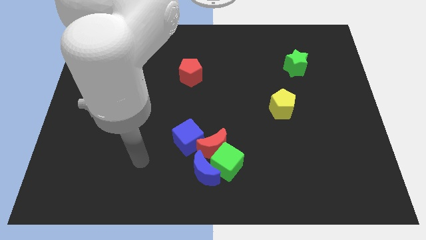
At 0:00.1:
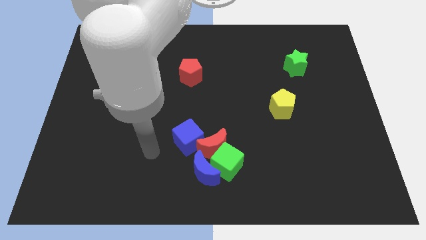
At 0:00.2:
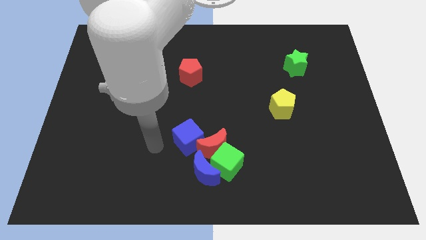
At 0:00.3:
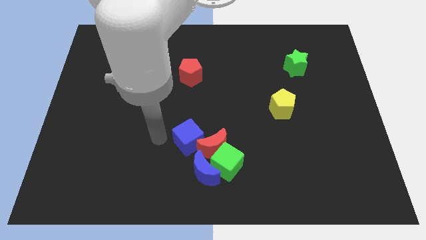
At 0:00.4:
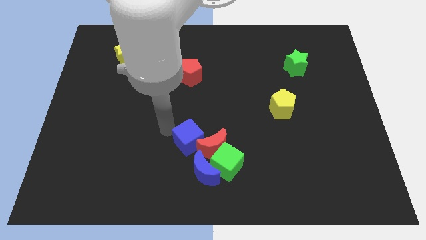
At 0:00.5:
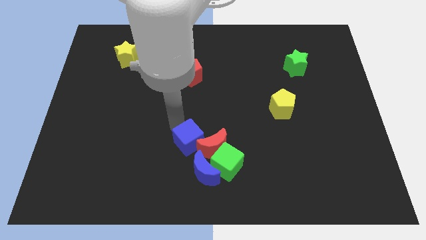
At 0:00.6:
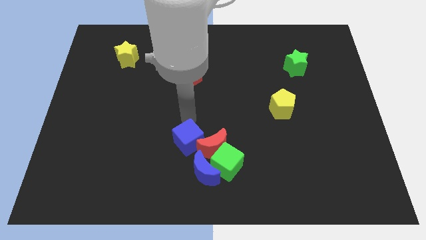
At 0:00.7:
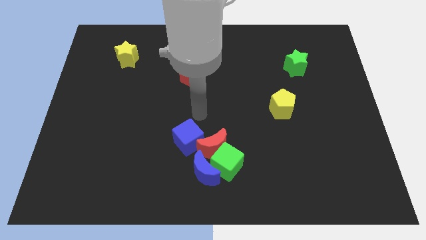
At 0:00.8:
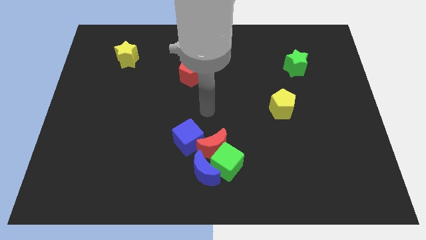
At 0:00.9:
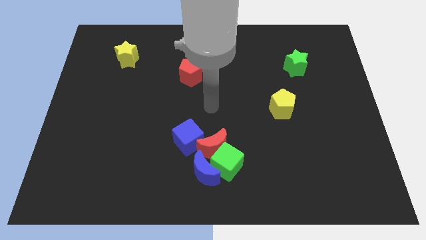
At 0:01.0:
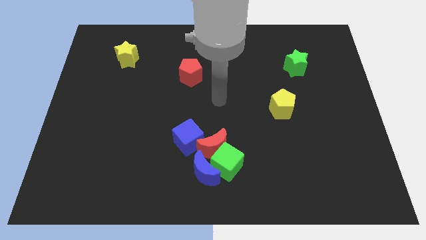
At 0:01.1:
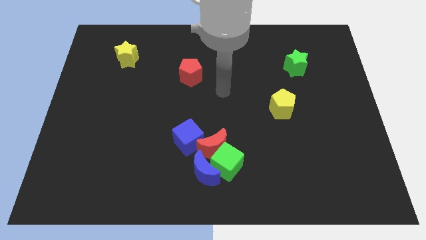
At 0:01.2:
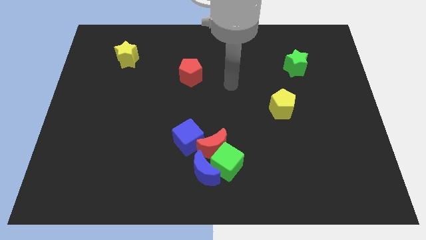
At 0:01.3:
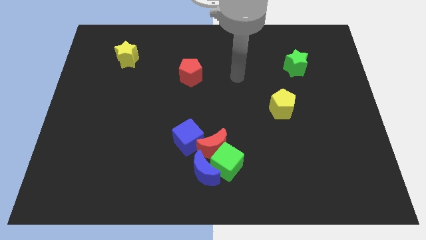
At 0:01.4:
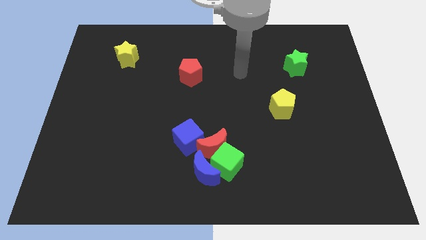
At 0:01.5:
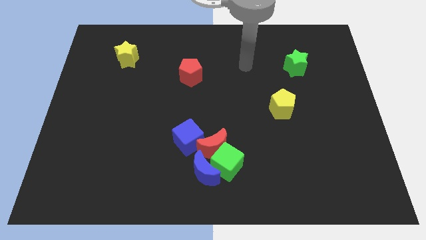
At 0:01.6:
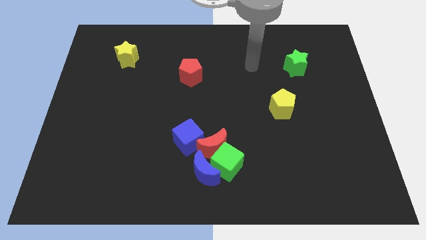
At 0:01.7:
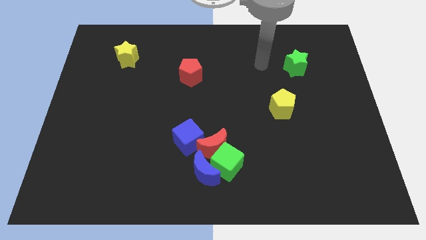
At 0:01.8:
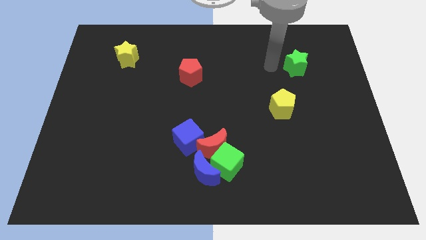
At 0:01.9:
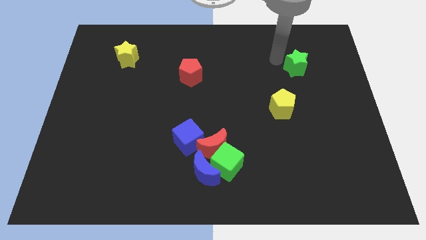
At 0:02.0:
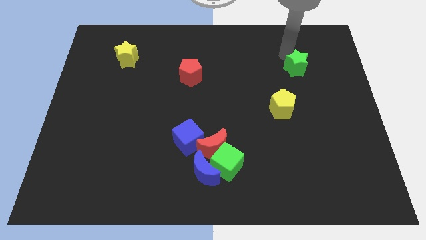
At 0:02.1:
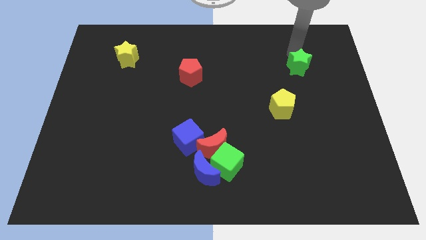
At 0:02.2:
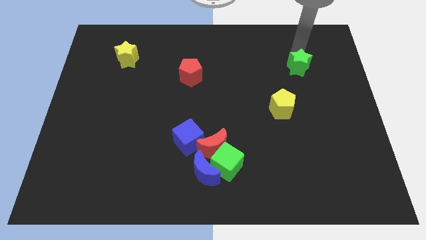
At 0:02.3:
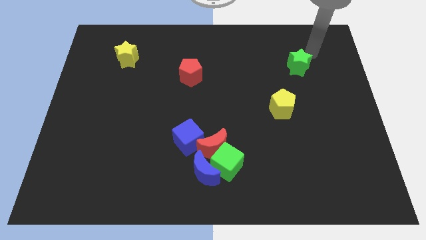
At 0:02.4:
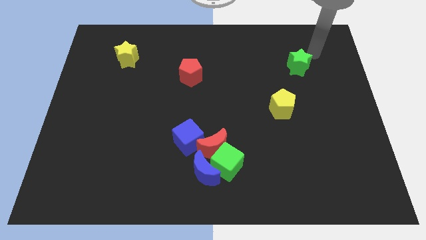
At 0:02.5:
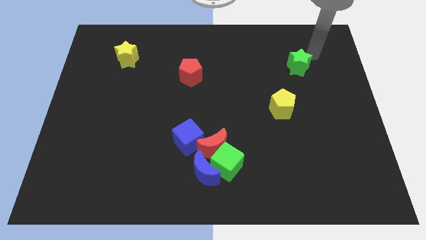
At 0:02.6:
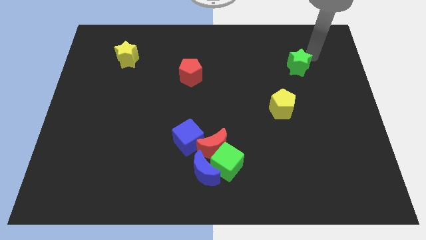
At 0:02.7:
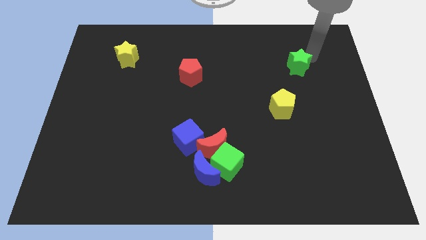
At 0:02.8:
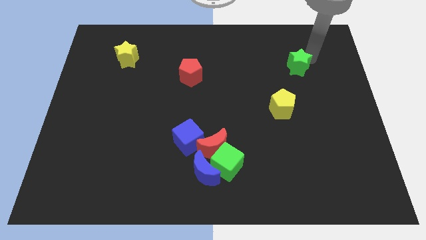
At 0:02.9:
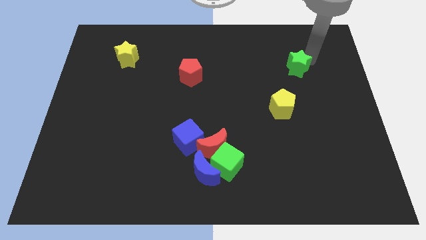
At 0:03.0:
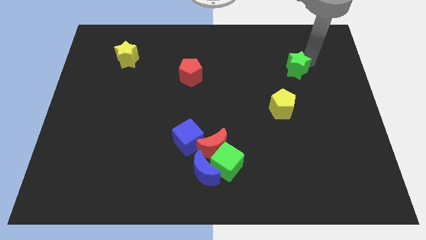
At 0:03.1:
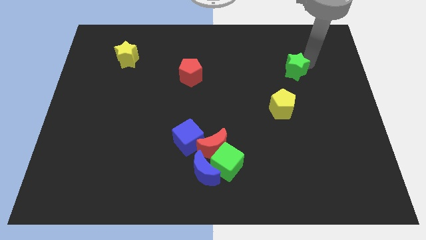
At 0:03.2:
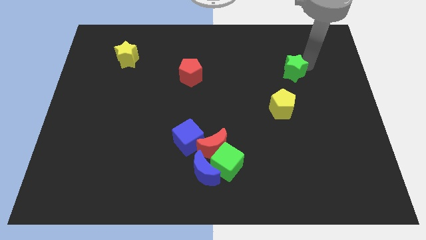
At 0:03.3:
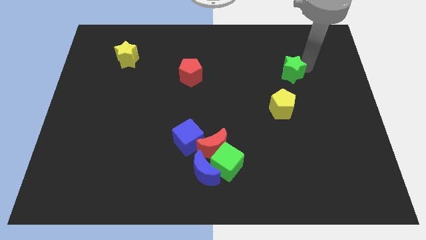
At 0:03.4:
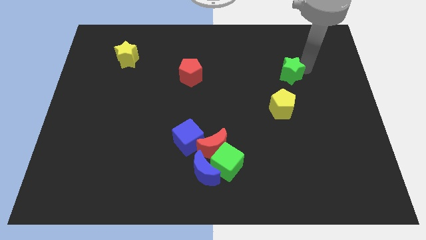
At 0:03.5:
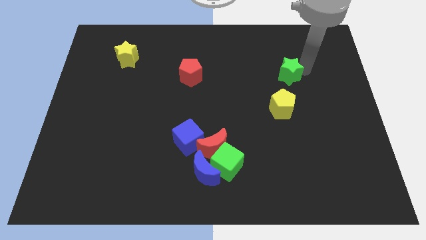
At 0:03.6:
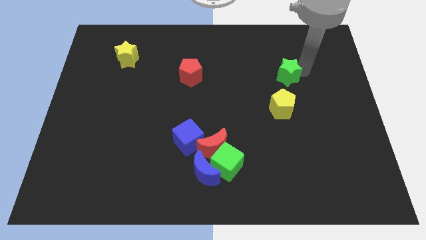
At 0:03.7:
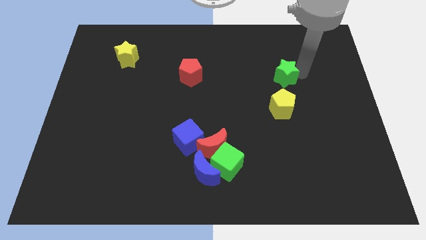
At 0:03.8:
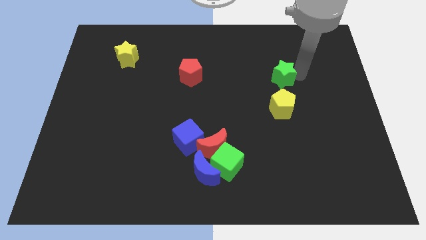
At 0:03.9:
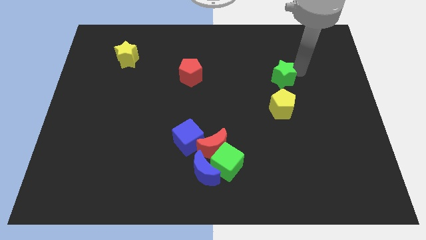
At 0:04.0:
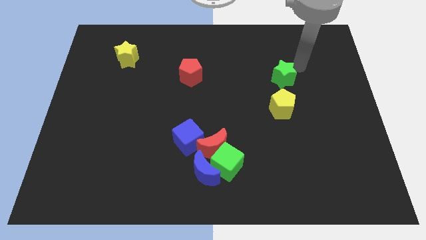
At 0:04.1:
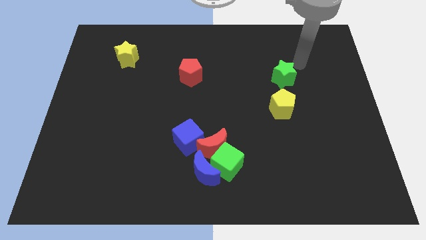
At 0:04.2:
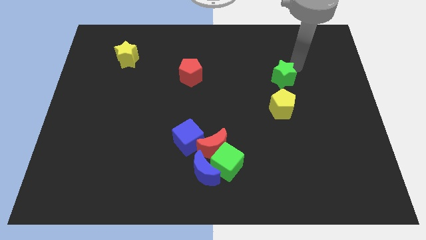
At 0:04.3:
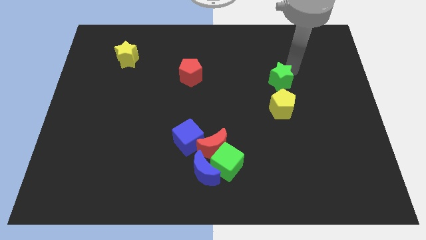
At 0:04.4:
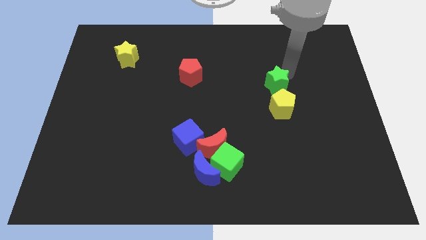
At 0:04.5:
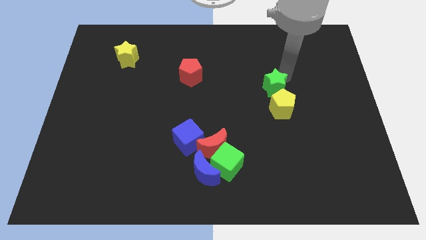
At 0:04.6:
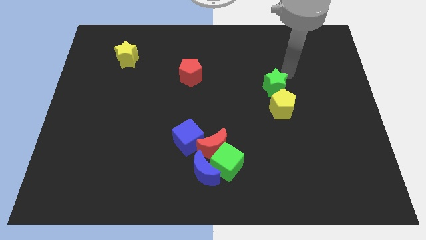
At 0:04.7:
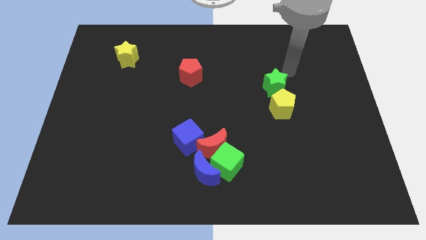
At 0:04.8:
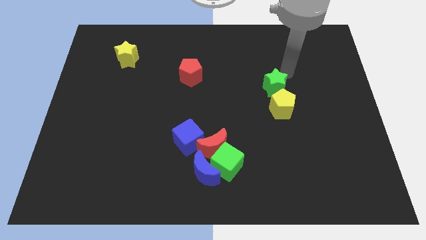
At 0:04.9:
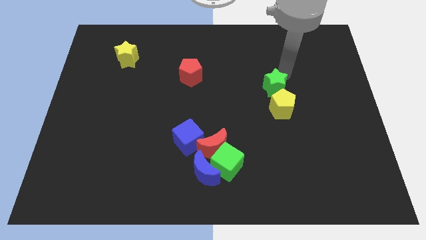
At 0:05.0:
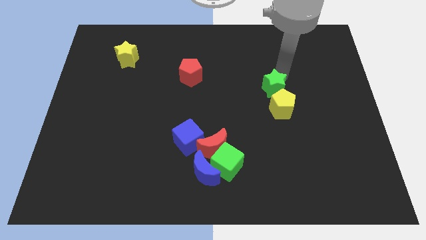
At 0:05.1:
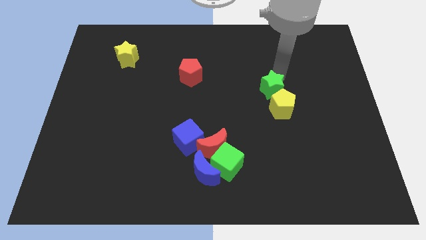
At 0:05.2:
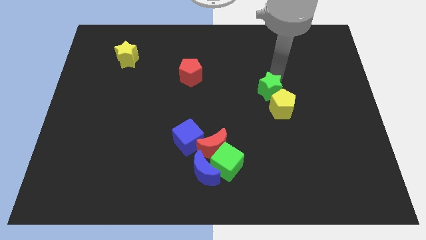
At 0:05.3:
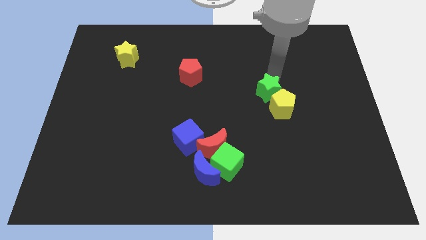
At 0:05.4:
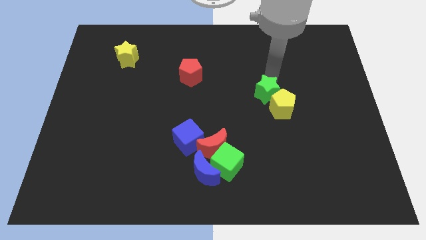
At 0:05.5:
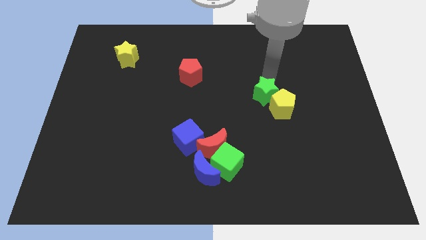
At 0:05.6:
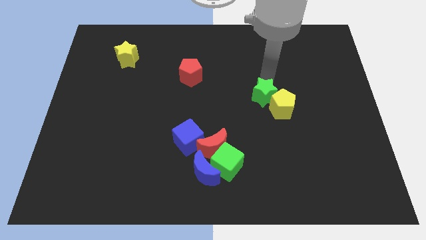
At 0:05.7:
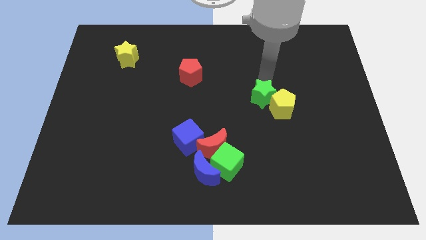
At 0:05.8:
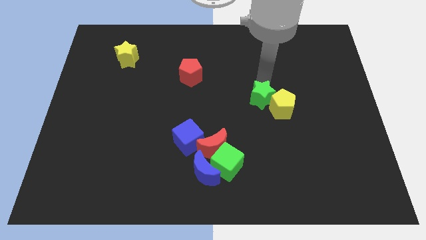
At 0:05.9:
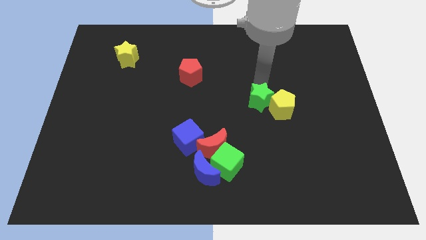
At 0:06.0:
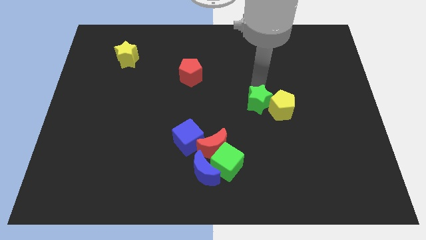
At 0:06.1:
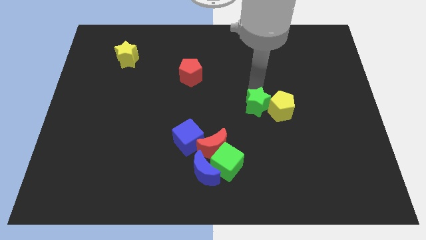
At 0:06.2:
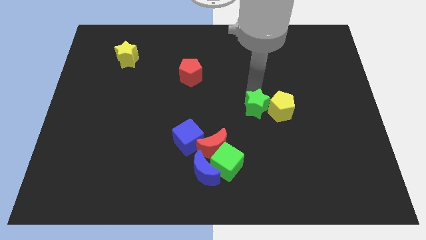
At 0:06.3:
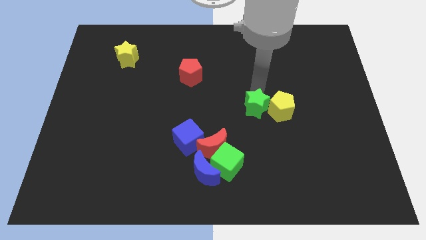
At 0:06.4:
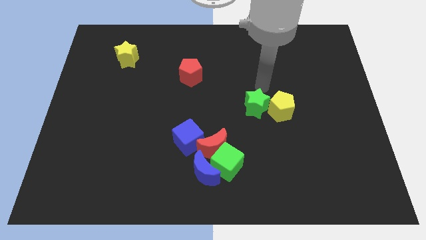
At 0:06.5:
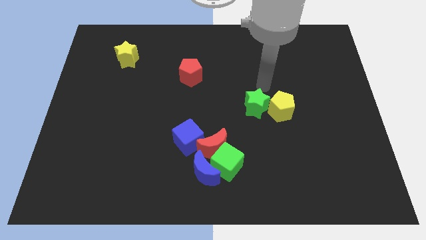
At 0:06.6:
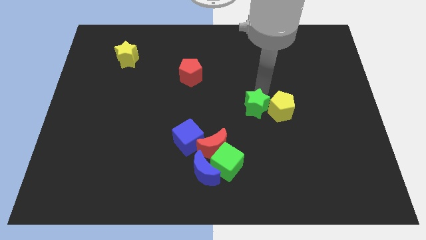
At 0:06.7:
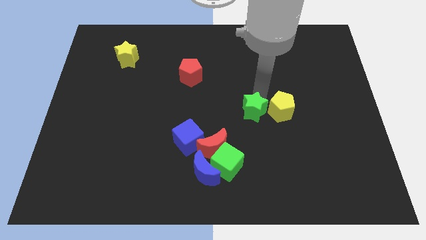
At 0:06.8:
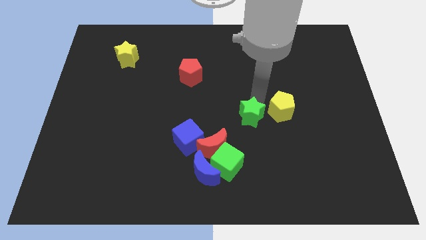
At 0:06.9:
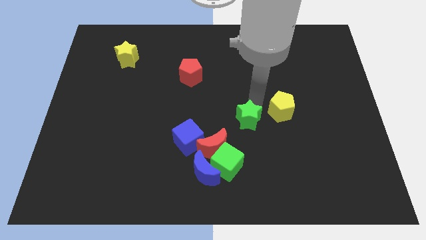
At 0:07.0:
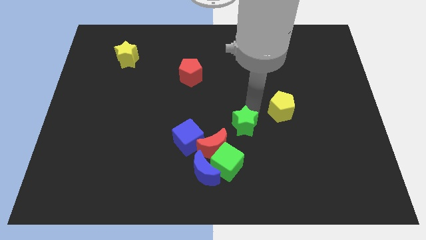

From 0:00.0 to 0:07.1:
move the green star to the right side of the blue cube
